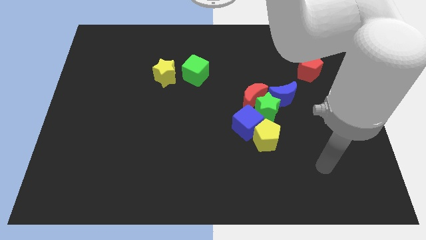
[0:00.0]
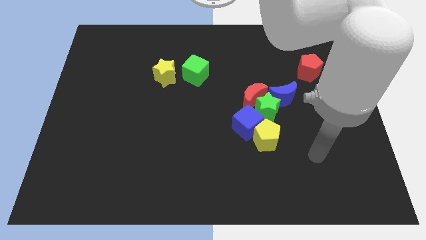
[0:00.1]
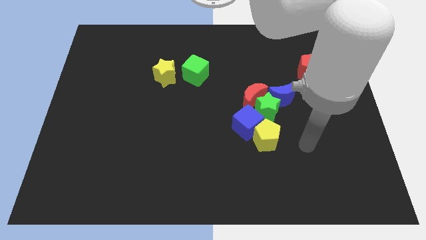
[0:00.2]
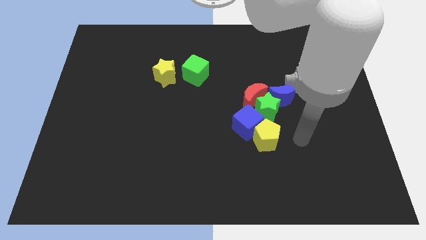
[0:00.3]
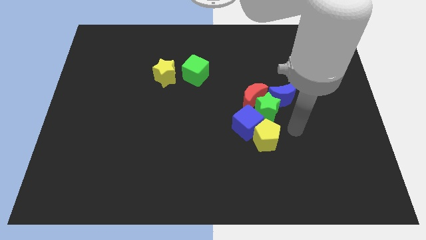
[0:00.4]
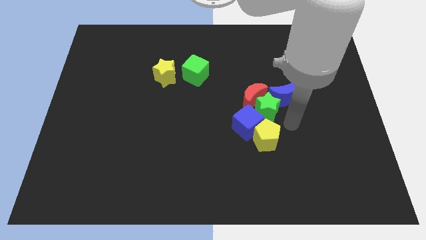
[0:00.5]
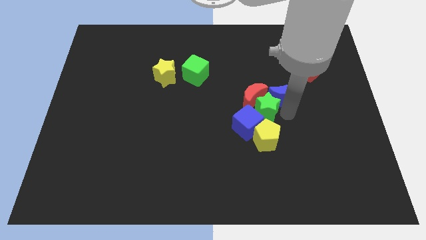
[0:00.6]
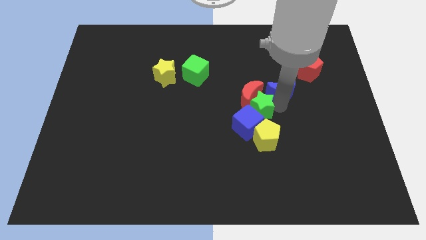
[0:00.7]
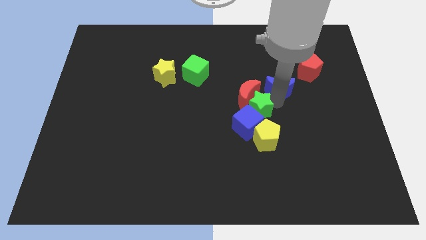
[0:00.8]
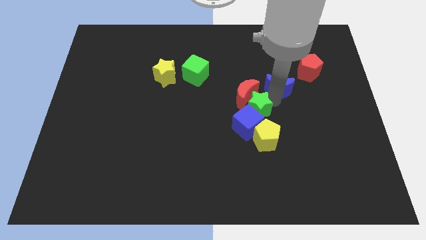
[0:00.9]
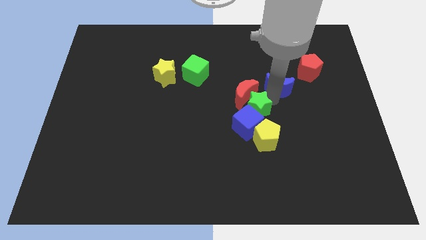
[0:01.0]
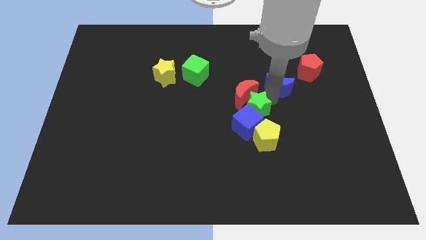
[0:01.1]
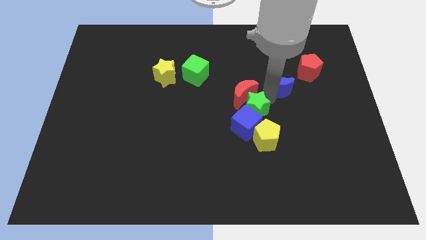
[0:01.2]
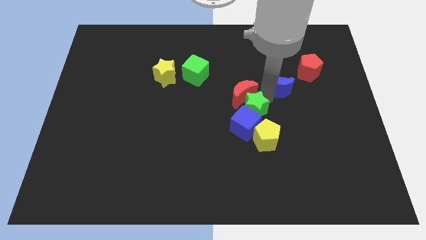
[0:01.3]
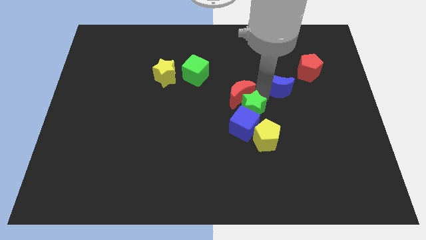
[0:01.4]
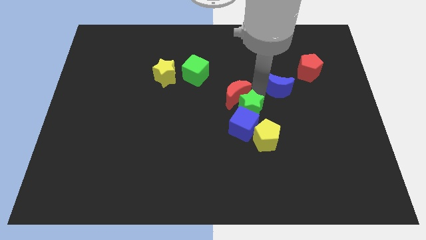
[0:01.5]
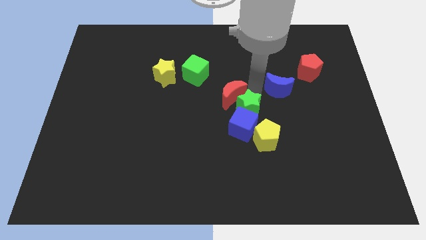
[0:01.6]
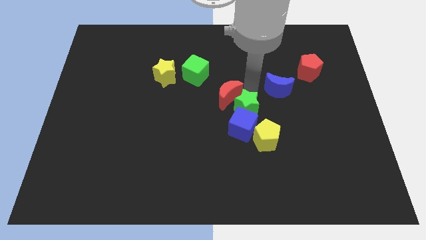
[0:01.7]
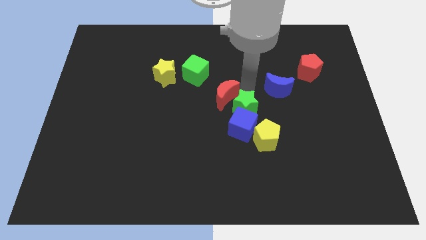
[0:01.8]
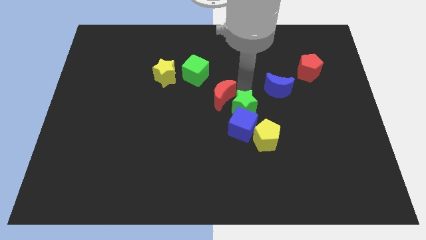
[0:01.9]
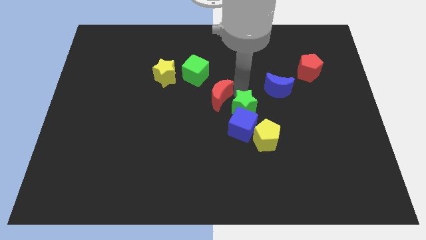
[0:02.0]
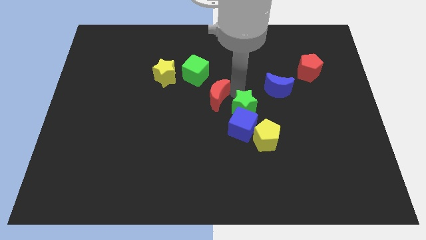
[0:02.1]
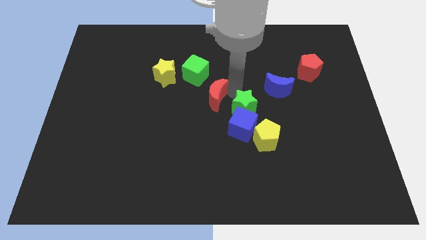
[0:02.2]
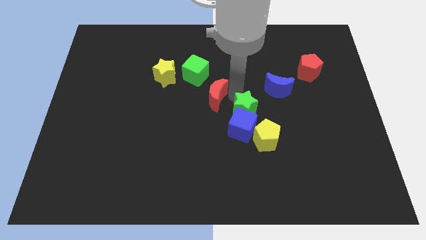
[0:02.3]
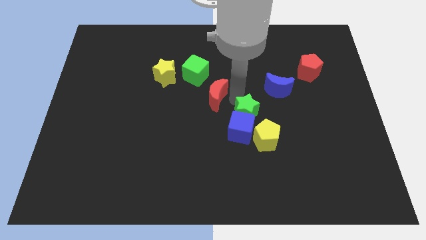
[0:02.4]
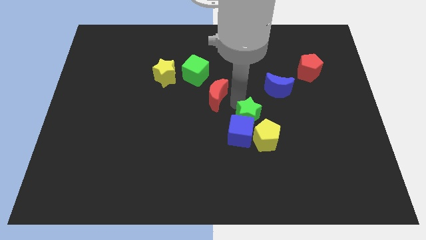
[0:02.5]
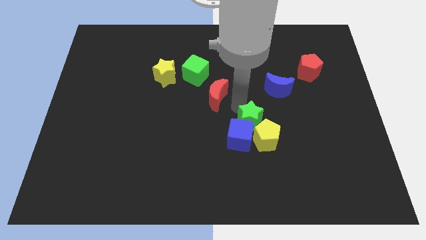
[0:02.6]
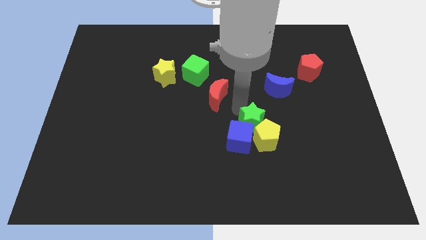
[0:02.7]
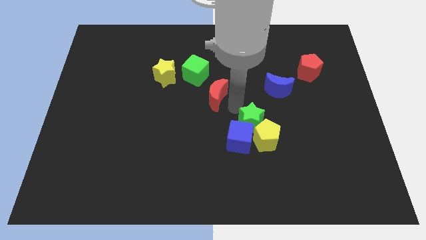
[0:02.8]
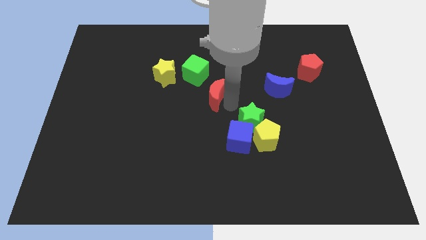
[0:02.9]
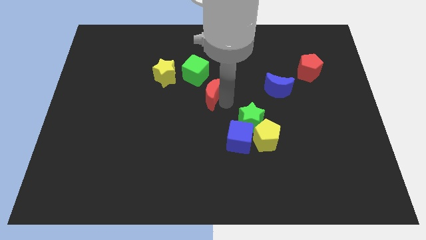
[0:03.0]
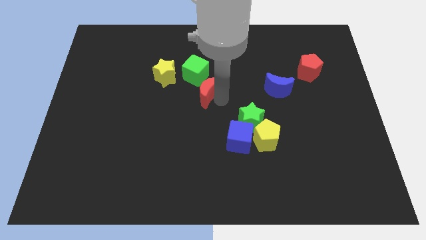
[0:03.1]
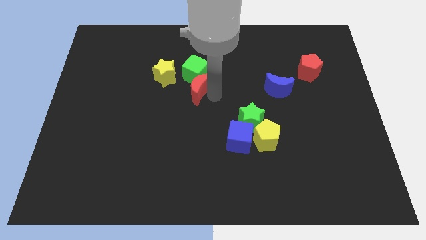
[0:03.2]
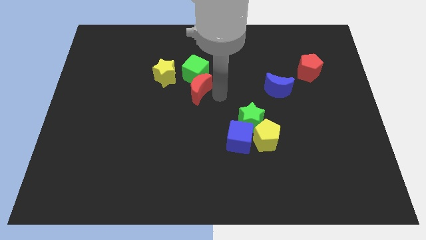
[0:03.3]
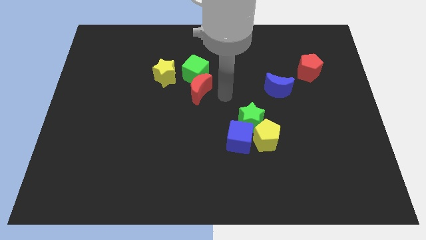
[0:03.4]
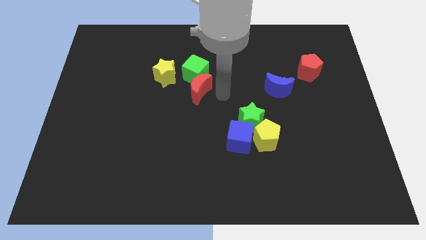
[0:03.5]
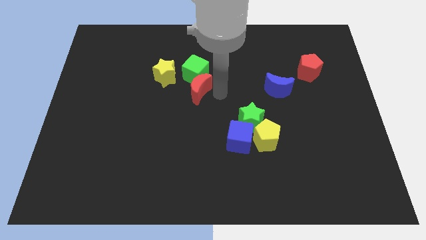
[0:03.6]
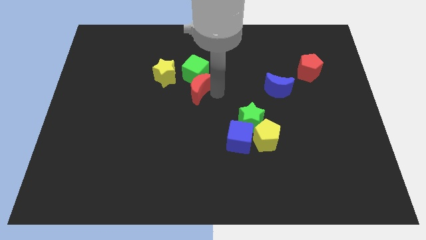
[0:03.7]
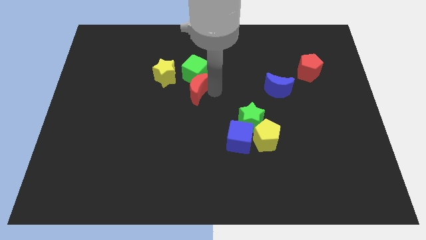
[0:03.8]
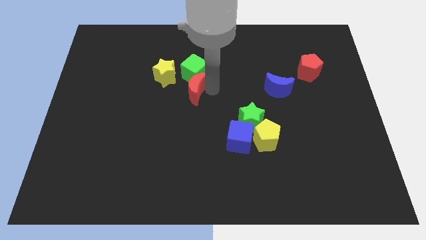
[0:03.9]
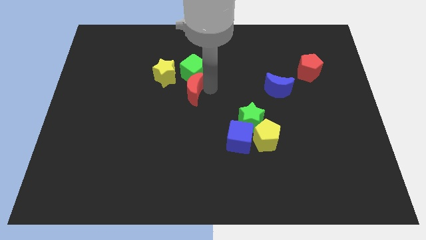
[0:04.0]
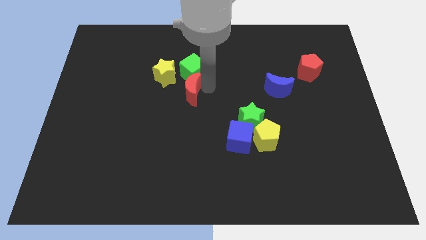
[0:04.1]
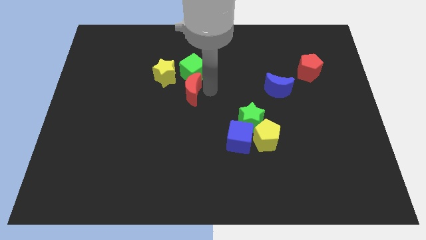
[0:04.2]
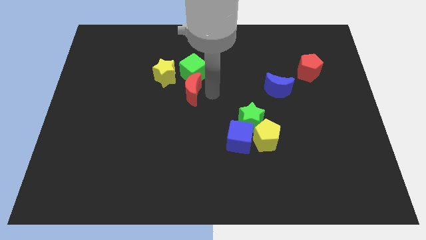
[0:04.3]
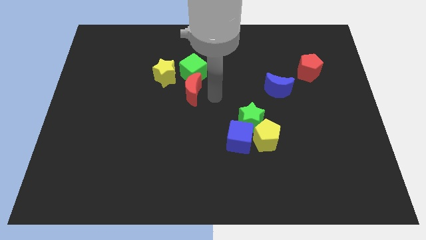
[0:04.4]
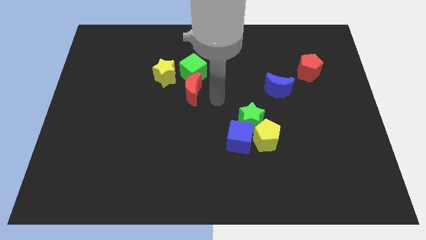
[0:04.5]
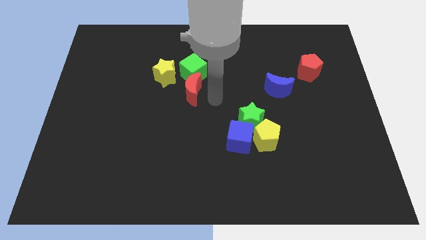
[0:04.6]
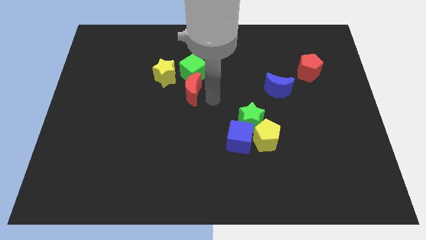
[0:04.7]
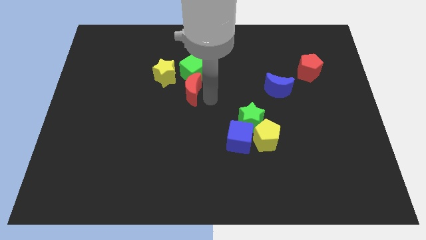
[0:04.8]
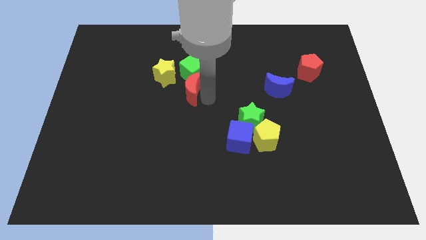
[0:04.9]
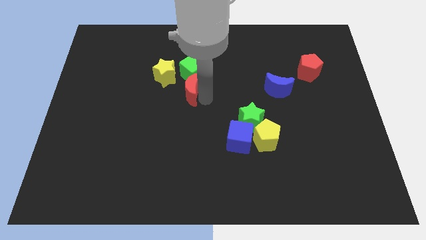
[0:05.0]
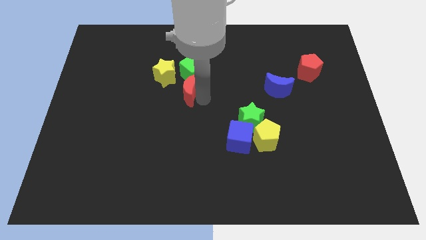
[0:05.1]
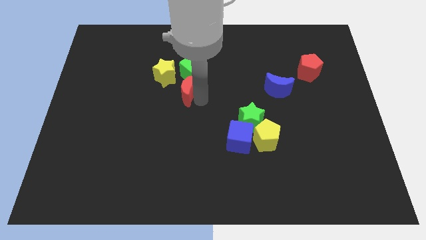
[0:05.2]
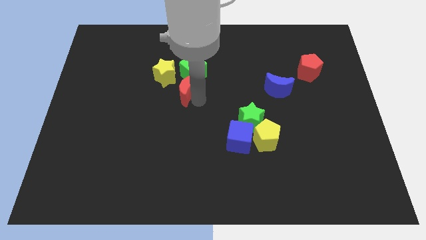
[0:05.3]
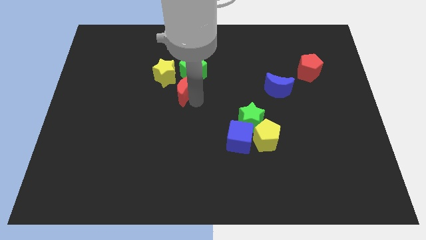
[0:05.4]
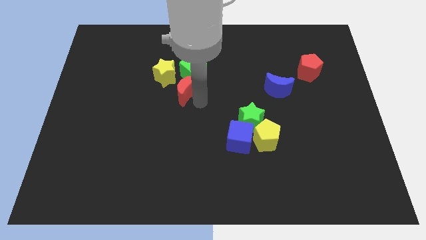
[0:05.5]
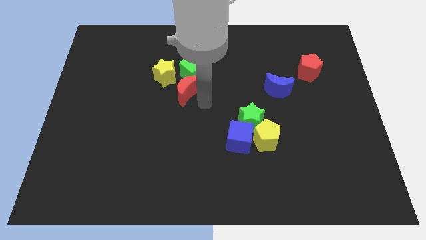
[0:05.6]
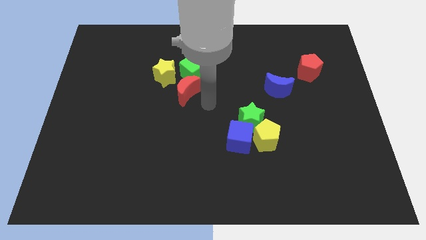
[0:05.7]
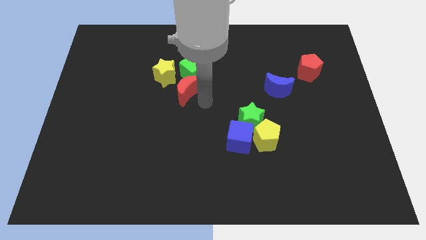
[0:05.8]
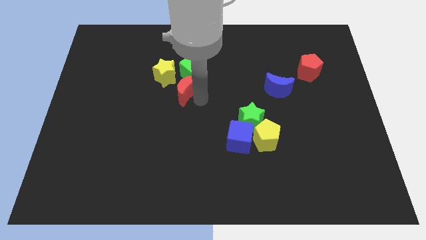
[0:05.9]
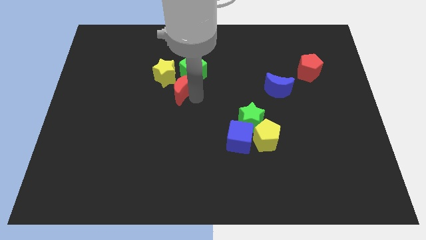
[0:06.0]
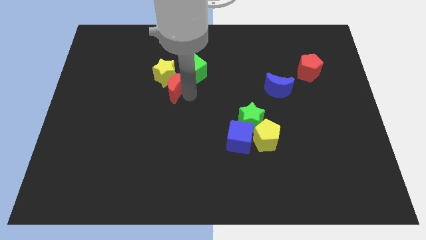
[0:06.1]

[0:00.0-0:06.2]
move the red moon towards the yellow star

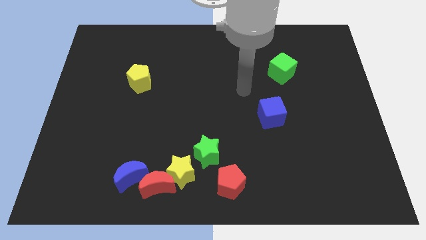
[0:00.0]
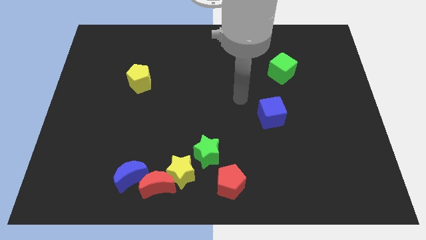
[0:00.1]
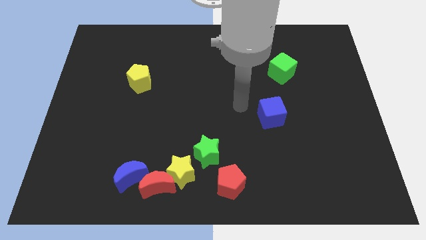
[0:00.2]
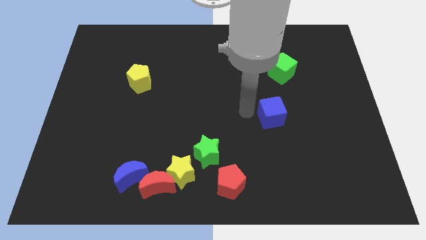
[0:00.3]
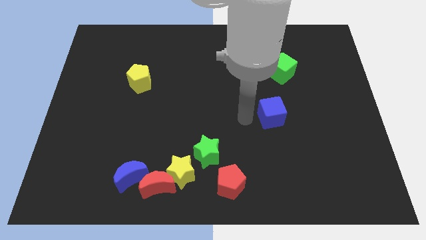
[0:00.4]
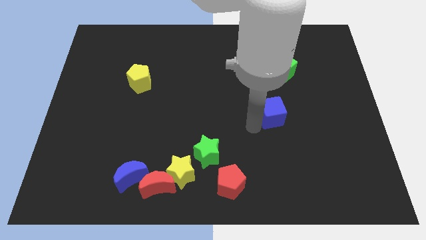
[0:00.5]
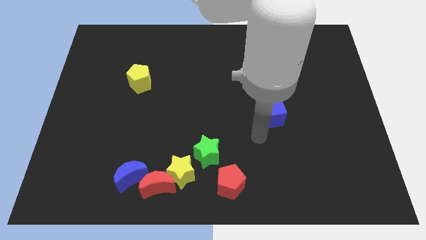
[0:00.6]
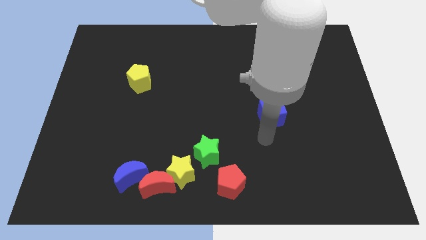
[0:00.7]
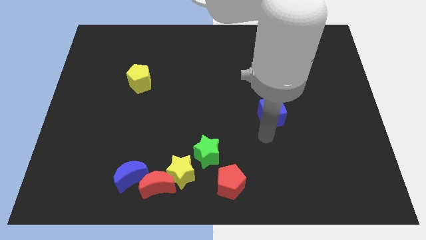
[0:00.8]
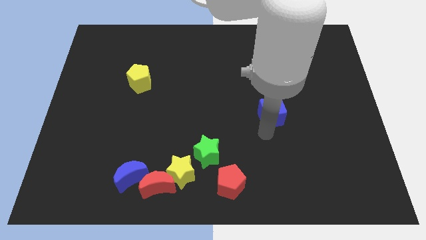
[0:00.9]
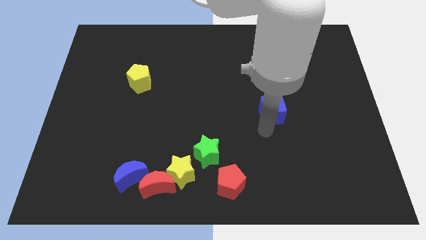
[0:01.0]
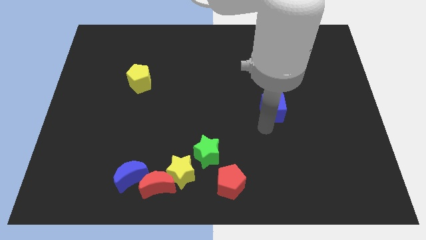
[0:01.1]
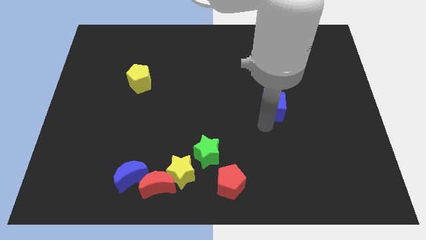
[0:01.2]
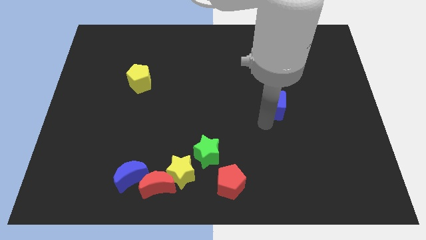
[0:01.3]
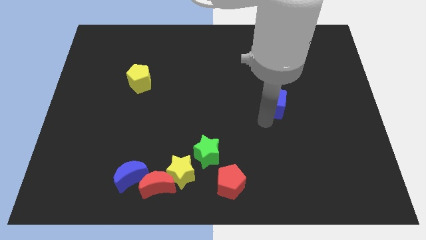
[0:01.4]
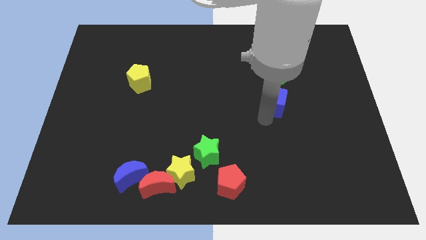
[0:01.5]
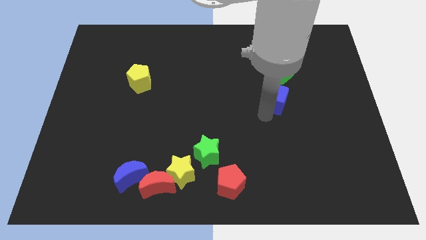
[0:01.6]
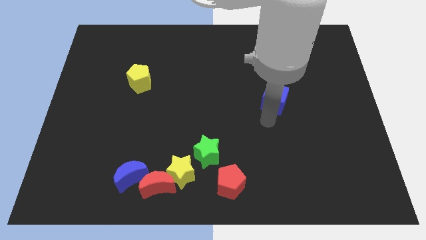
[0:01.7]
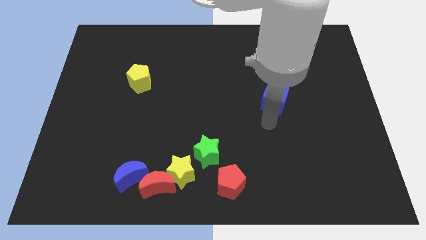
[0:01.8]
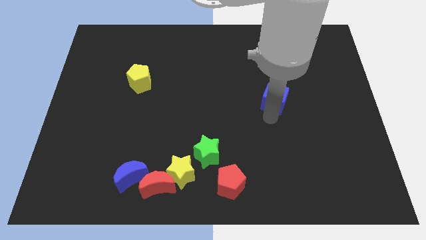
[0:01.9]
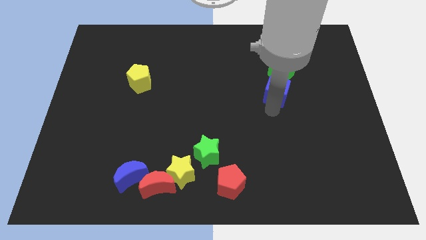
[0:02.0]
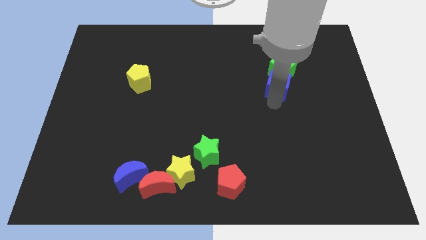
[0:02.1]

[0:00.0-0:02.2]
slide the blue cube towards the green cube
